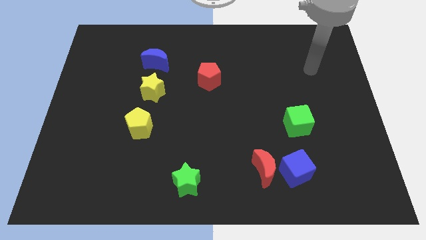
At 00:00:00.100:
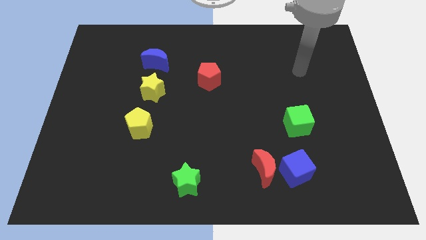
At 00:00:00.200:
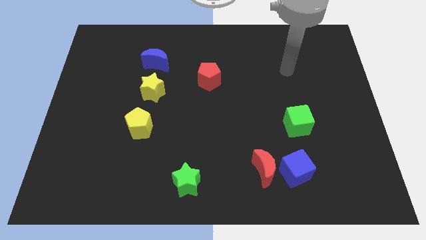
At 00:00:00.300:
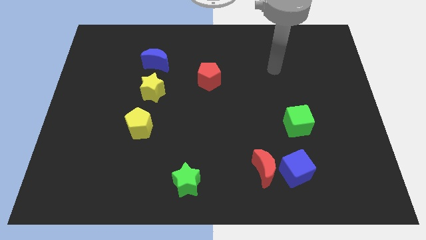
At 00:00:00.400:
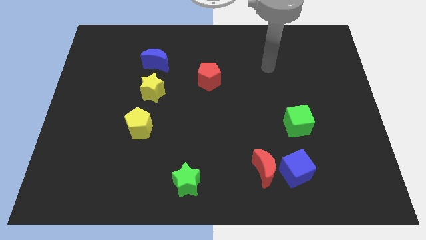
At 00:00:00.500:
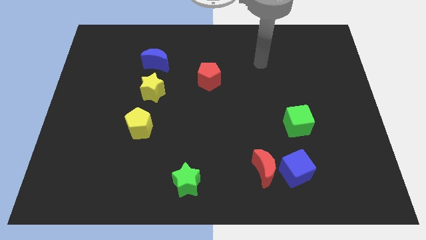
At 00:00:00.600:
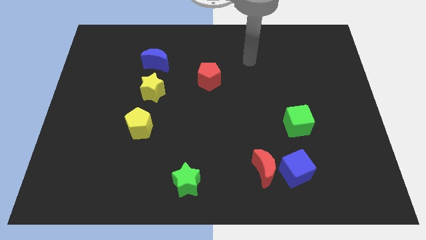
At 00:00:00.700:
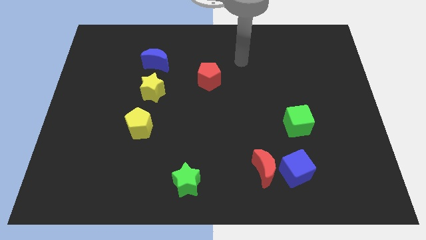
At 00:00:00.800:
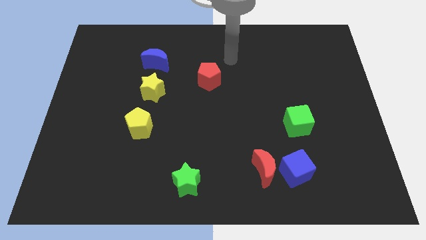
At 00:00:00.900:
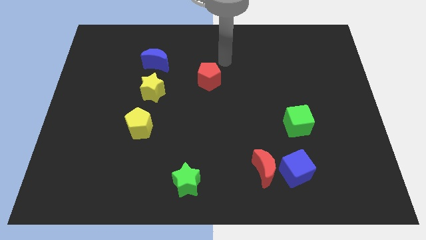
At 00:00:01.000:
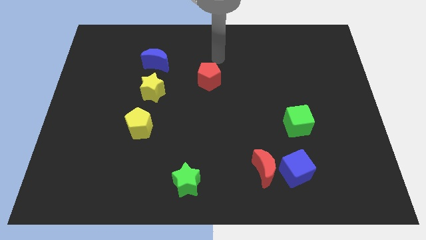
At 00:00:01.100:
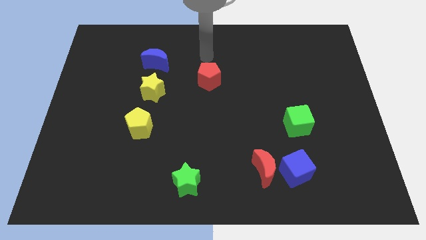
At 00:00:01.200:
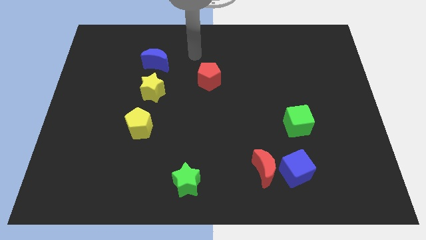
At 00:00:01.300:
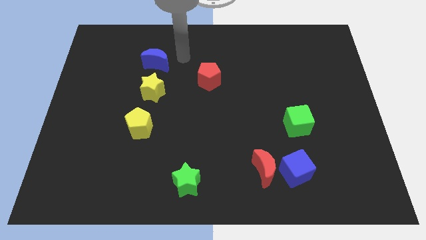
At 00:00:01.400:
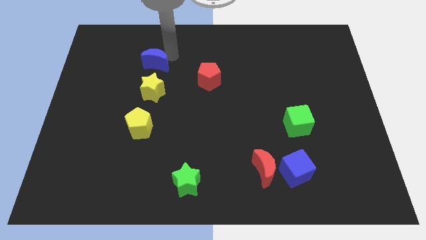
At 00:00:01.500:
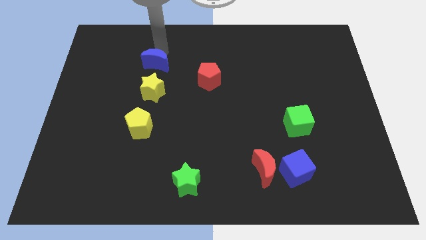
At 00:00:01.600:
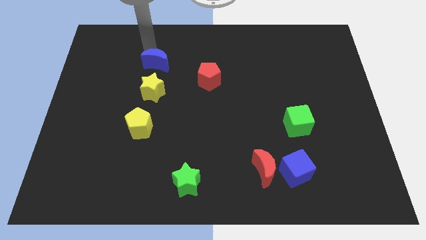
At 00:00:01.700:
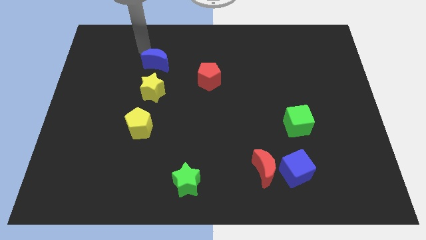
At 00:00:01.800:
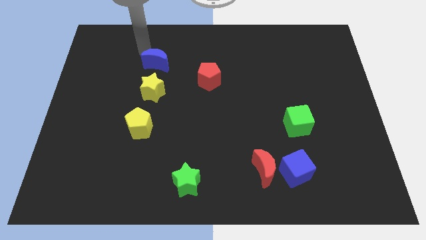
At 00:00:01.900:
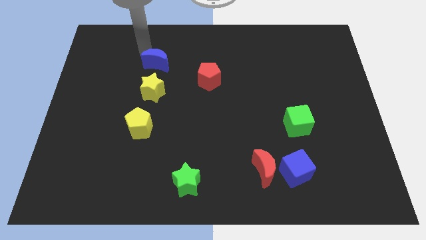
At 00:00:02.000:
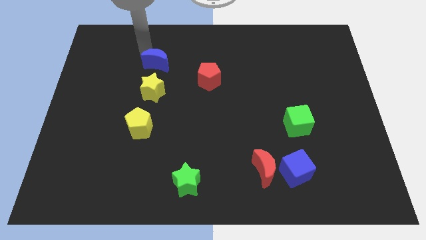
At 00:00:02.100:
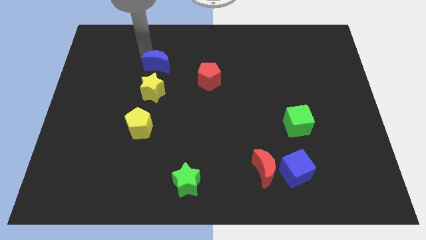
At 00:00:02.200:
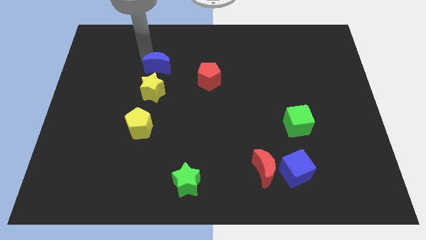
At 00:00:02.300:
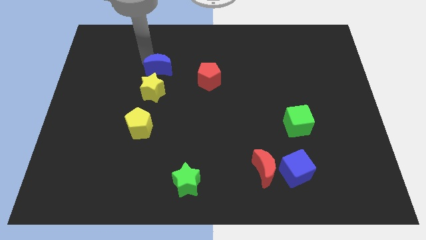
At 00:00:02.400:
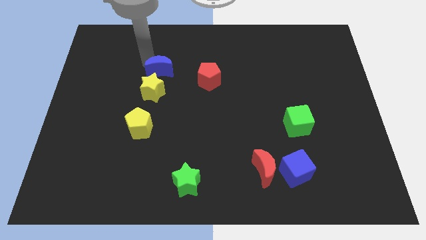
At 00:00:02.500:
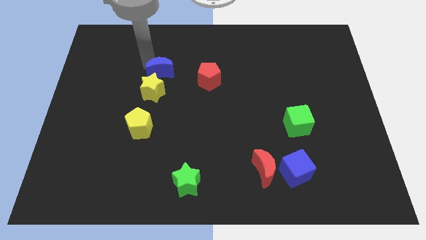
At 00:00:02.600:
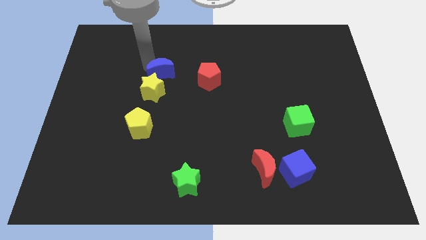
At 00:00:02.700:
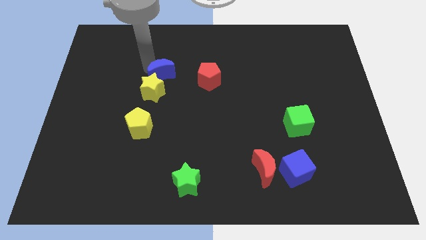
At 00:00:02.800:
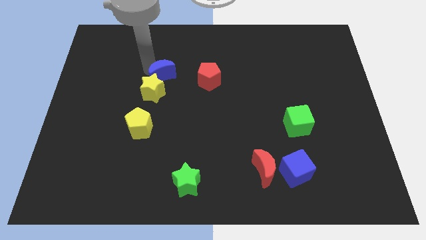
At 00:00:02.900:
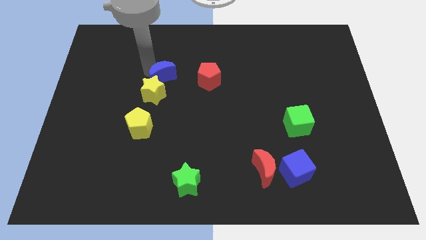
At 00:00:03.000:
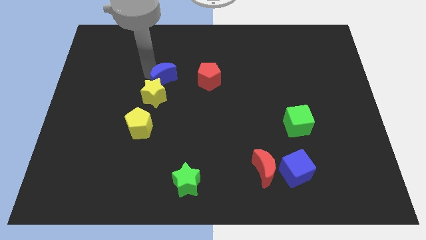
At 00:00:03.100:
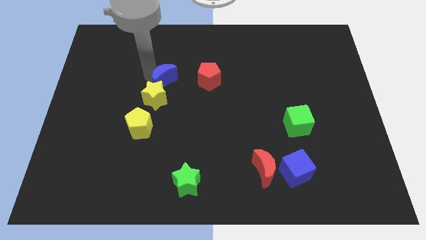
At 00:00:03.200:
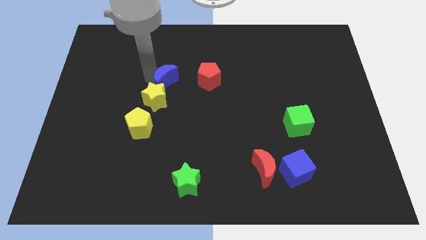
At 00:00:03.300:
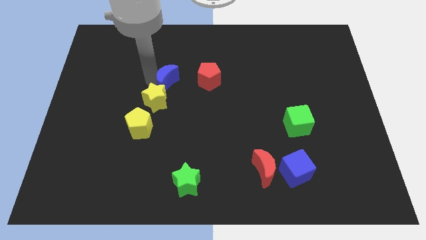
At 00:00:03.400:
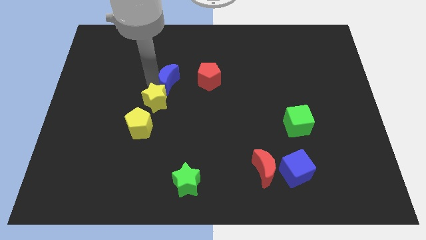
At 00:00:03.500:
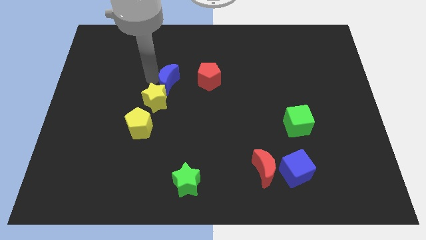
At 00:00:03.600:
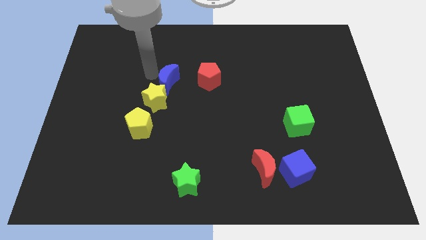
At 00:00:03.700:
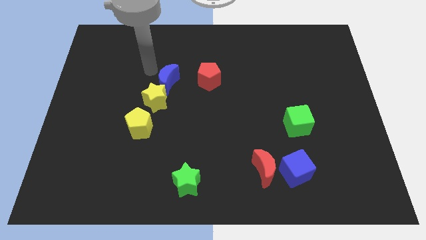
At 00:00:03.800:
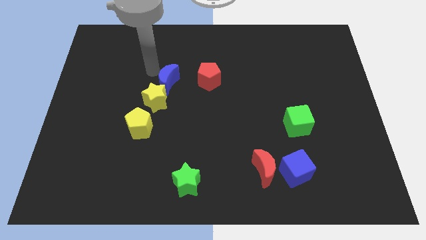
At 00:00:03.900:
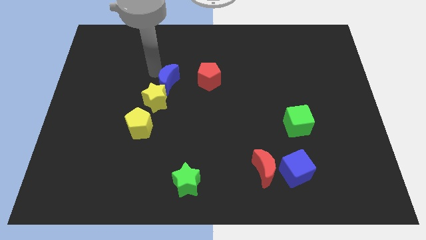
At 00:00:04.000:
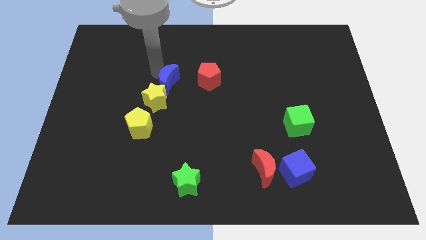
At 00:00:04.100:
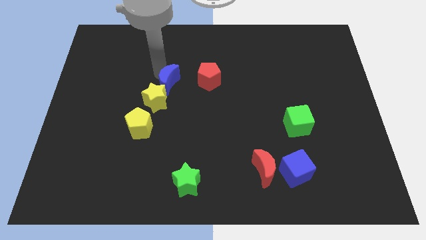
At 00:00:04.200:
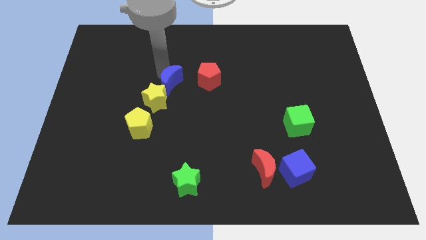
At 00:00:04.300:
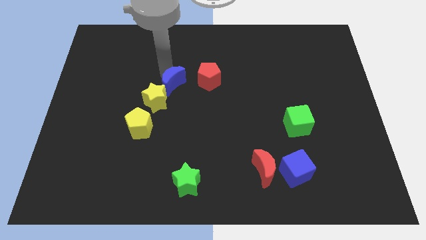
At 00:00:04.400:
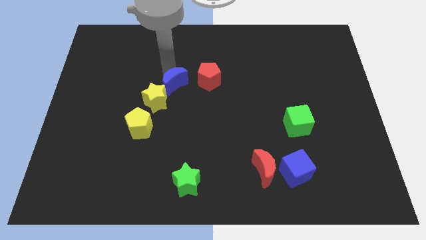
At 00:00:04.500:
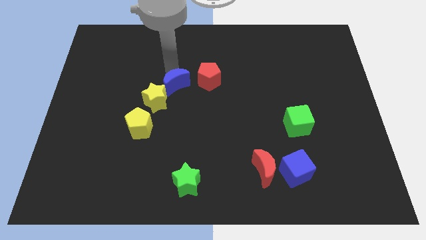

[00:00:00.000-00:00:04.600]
push the blue moon diagonally down and to the left of the red pentagon

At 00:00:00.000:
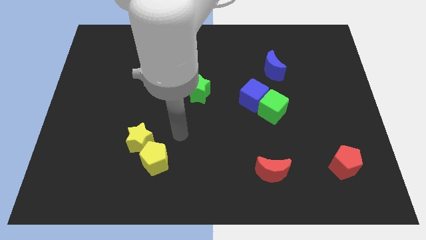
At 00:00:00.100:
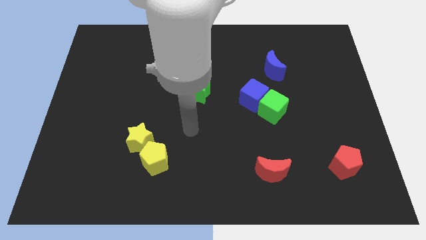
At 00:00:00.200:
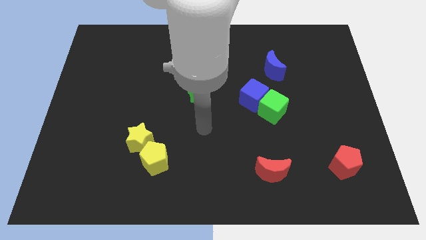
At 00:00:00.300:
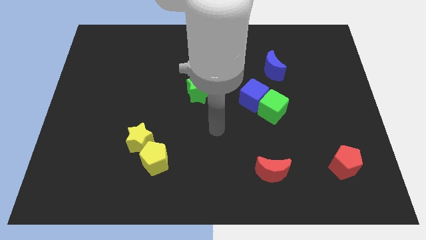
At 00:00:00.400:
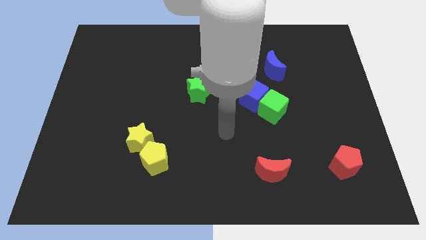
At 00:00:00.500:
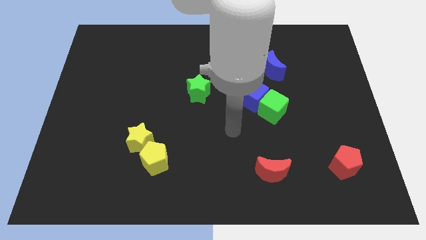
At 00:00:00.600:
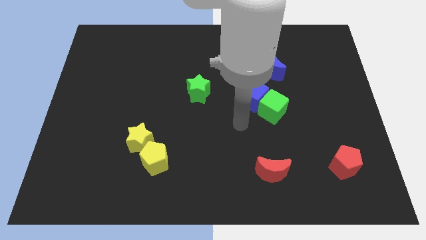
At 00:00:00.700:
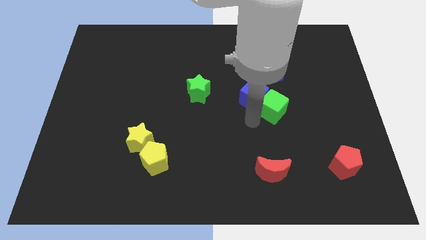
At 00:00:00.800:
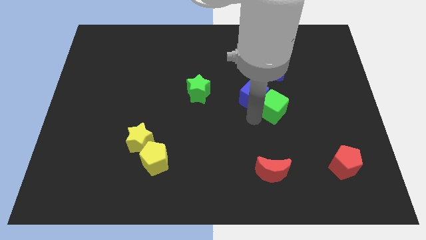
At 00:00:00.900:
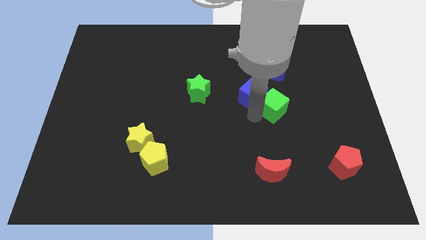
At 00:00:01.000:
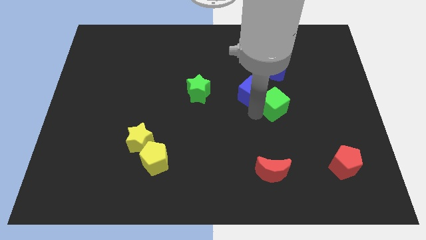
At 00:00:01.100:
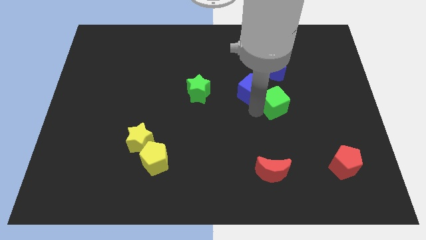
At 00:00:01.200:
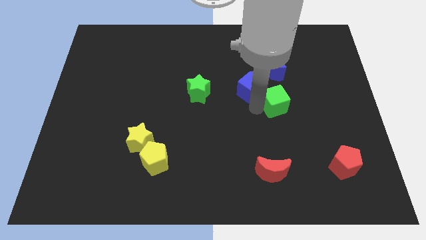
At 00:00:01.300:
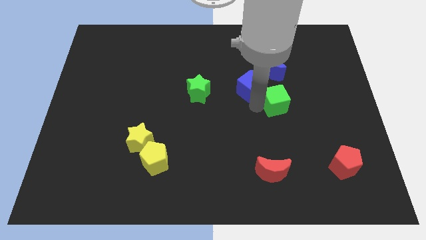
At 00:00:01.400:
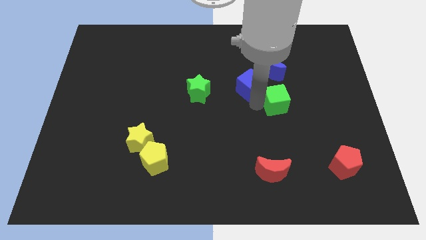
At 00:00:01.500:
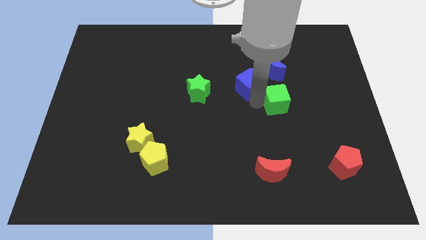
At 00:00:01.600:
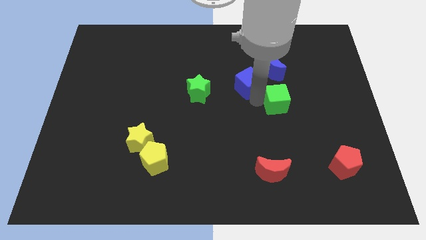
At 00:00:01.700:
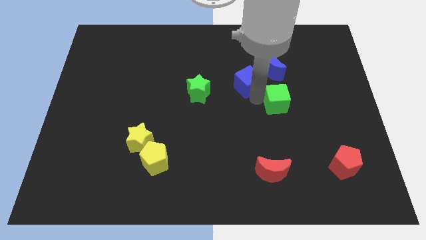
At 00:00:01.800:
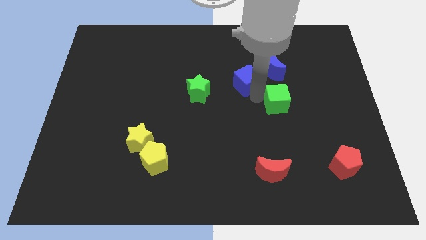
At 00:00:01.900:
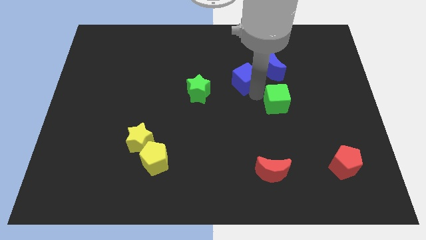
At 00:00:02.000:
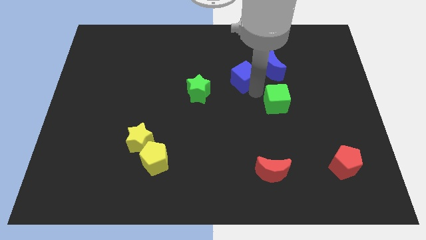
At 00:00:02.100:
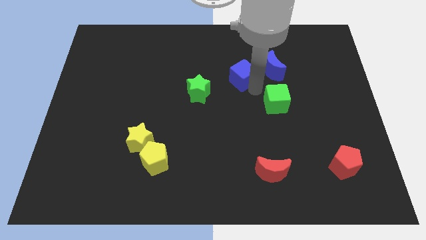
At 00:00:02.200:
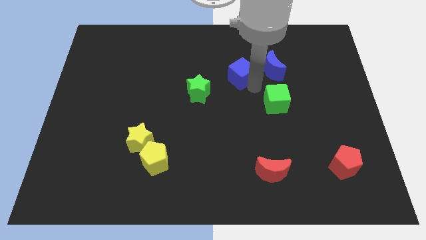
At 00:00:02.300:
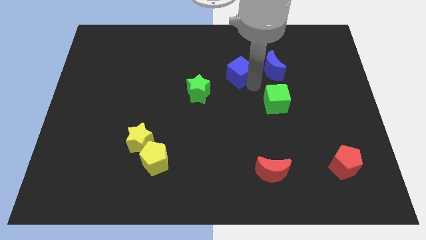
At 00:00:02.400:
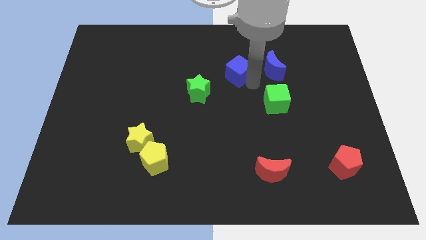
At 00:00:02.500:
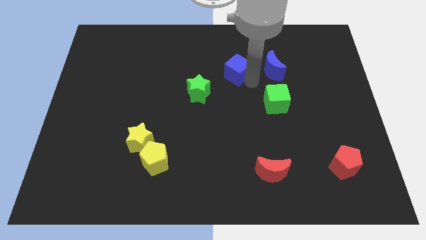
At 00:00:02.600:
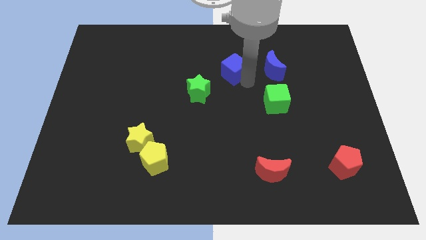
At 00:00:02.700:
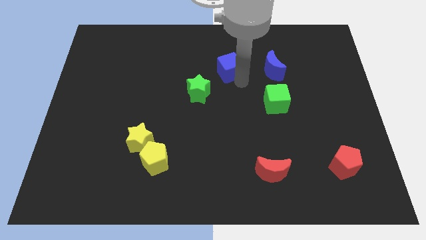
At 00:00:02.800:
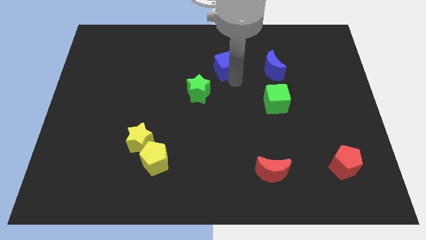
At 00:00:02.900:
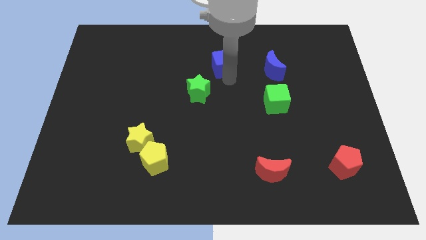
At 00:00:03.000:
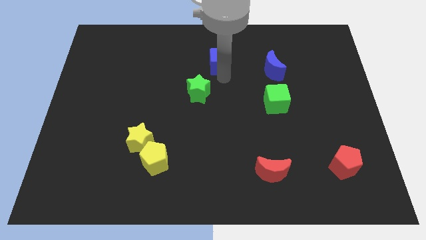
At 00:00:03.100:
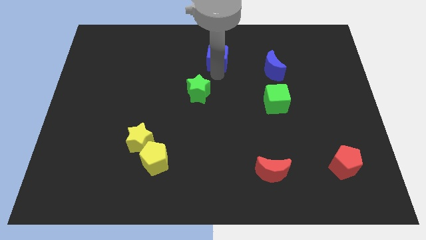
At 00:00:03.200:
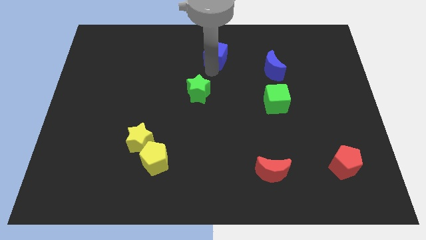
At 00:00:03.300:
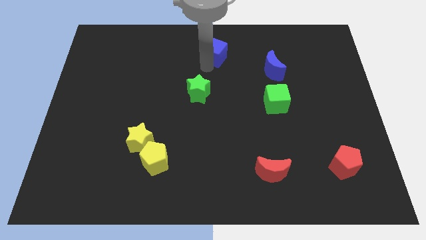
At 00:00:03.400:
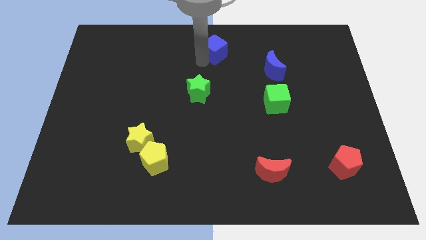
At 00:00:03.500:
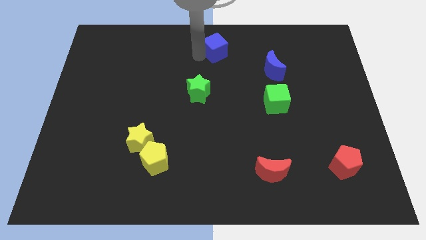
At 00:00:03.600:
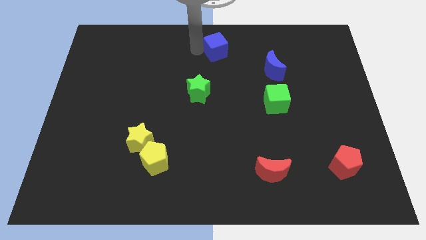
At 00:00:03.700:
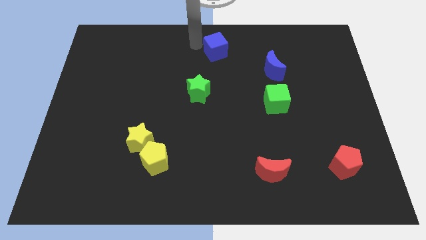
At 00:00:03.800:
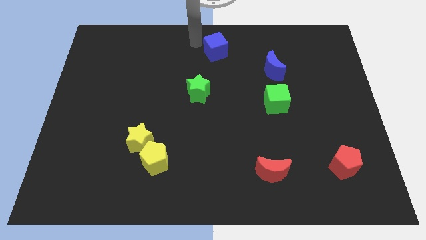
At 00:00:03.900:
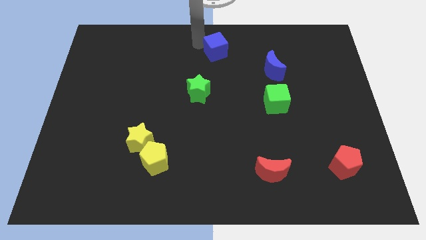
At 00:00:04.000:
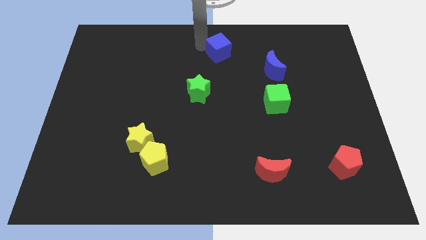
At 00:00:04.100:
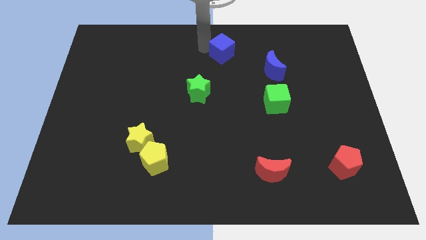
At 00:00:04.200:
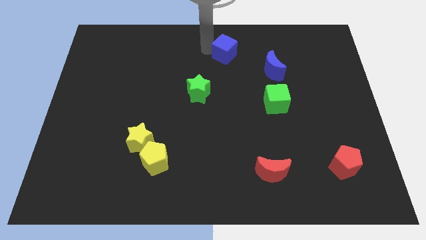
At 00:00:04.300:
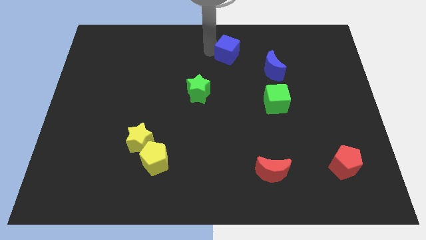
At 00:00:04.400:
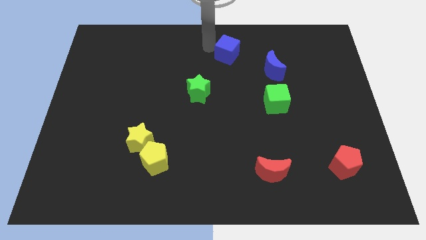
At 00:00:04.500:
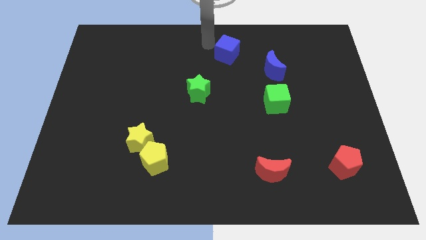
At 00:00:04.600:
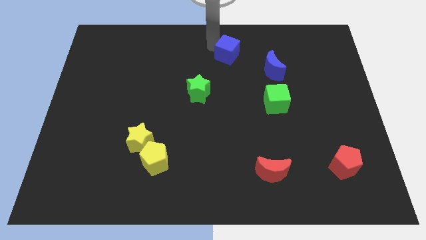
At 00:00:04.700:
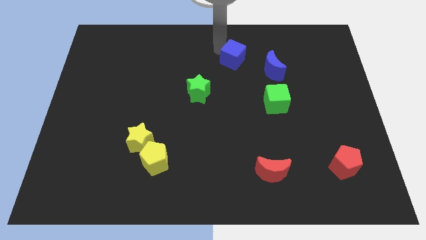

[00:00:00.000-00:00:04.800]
move the blue cube to the top left side of the blue moon
